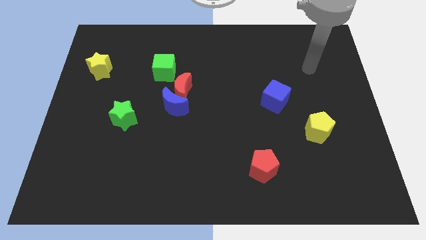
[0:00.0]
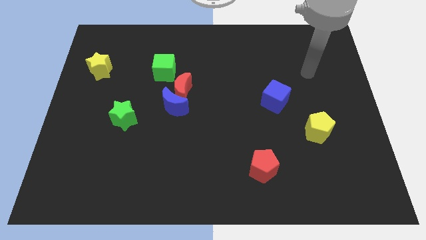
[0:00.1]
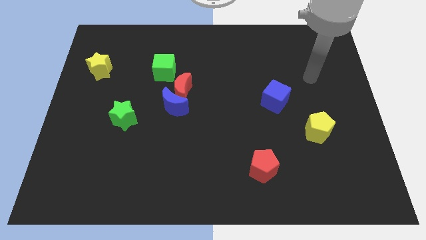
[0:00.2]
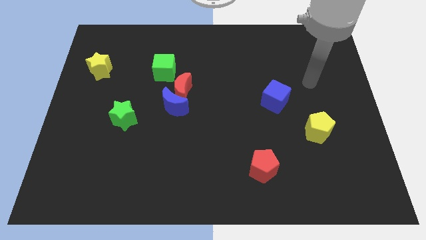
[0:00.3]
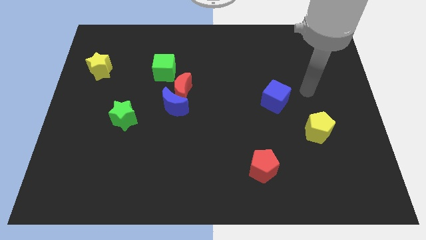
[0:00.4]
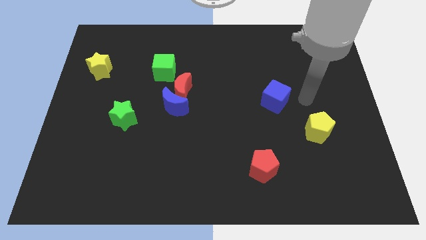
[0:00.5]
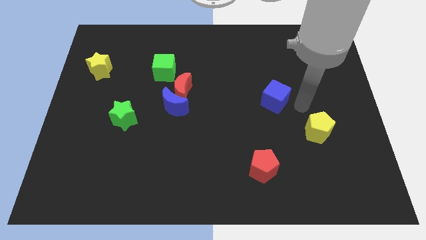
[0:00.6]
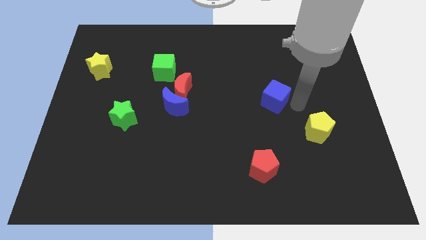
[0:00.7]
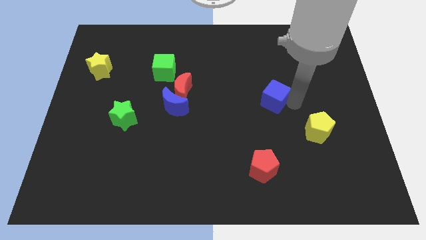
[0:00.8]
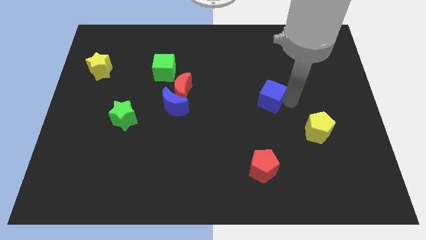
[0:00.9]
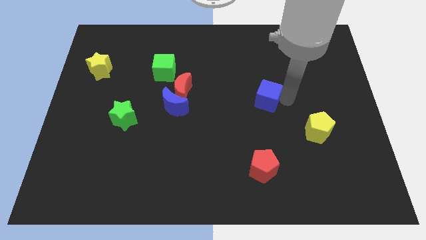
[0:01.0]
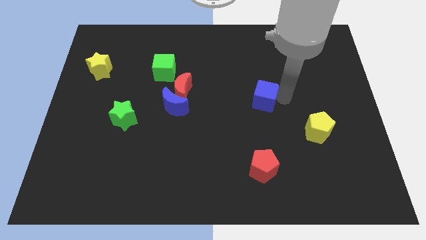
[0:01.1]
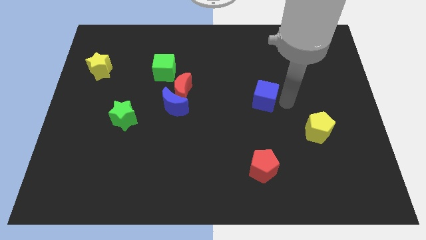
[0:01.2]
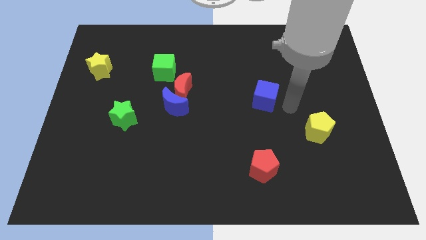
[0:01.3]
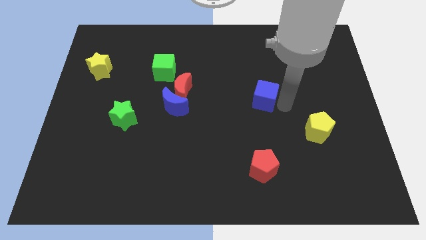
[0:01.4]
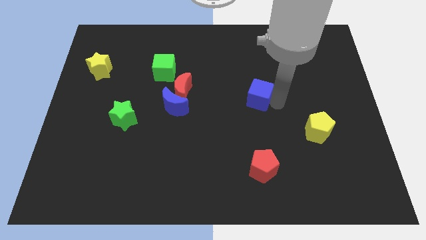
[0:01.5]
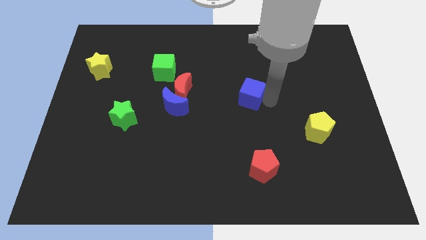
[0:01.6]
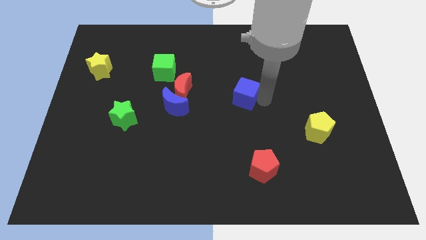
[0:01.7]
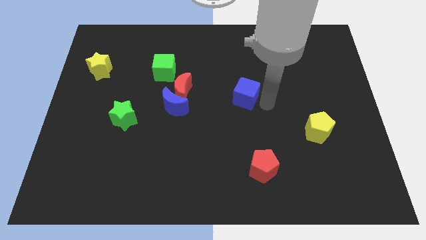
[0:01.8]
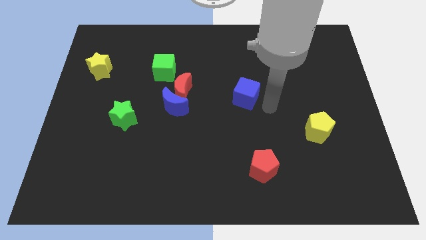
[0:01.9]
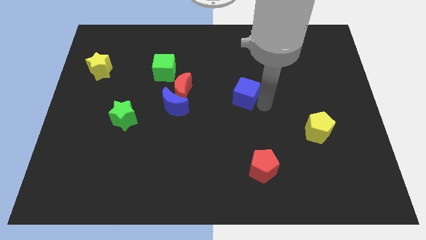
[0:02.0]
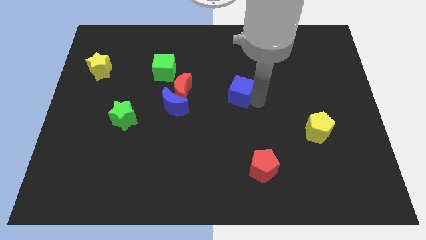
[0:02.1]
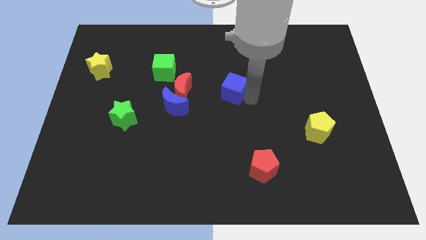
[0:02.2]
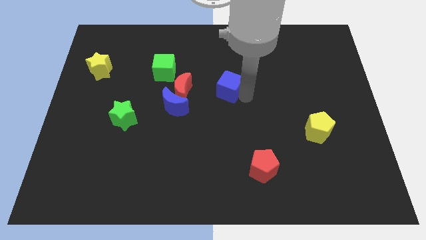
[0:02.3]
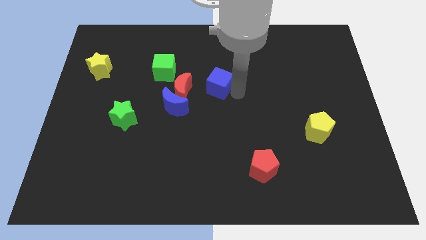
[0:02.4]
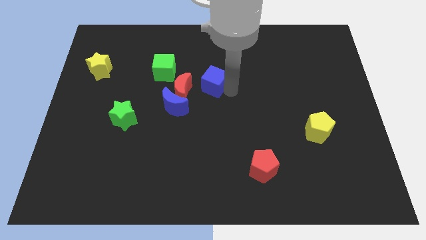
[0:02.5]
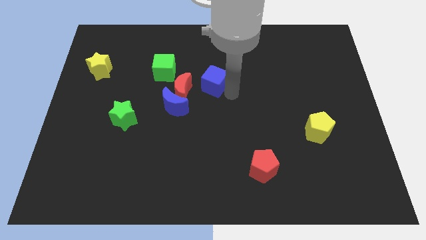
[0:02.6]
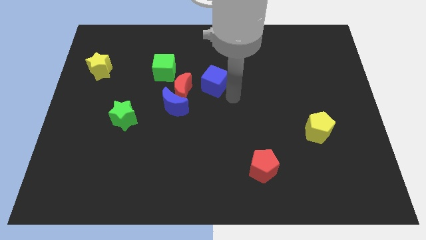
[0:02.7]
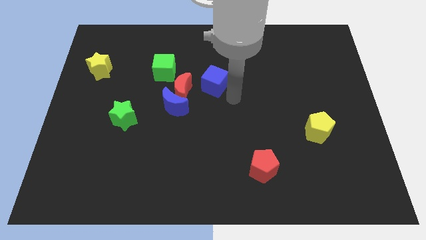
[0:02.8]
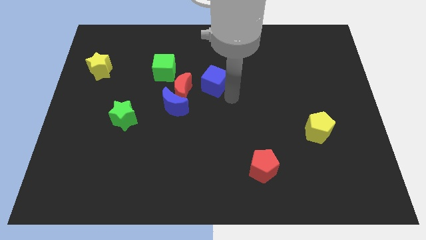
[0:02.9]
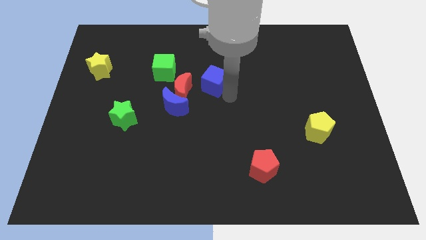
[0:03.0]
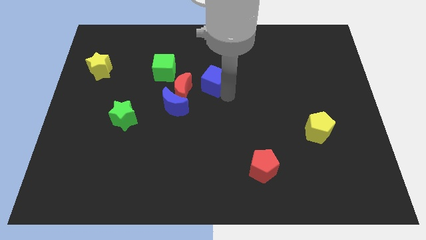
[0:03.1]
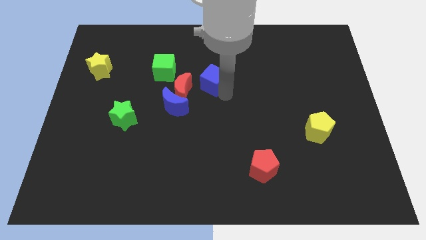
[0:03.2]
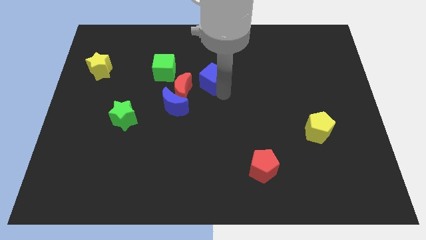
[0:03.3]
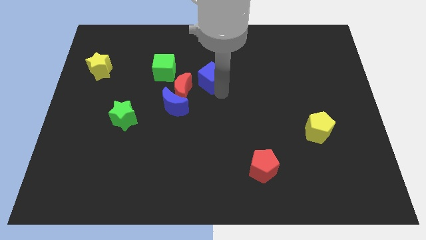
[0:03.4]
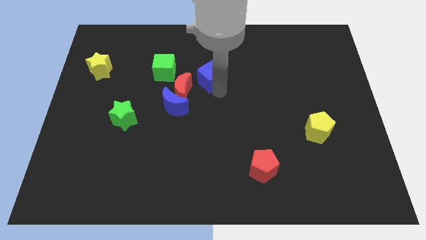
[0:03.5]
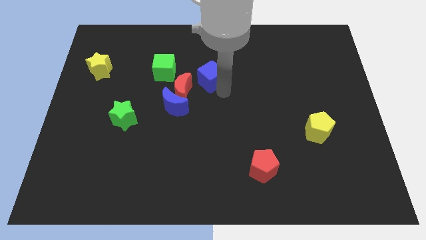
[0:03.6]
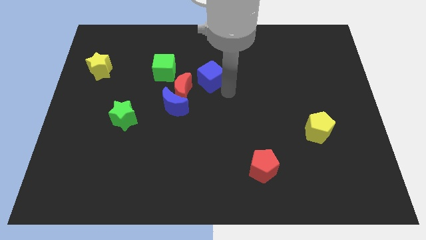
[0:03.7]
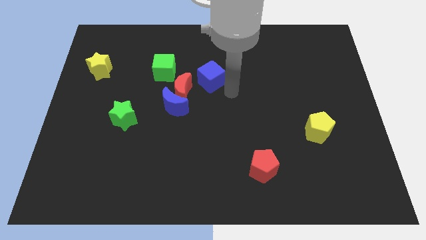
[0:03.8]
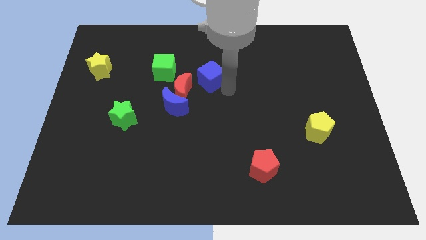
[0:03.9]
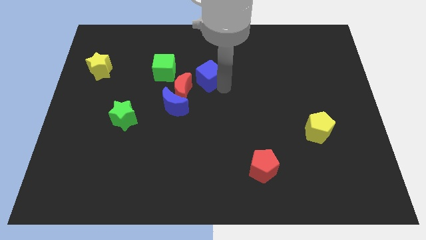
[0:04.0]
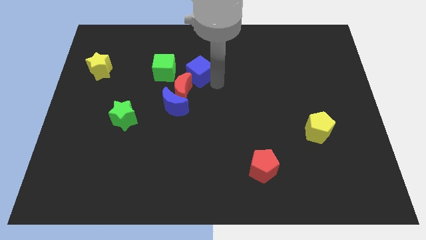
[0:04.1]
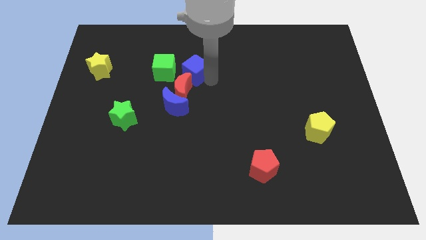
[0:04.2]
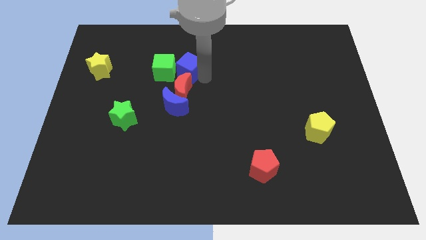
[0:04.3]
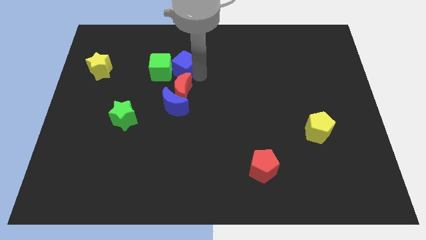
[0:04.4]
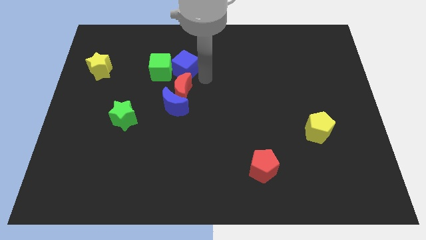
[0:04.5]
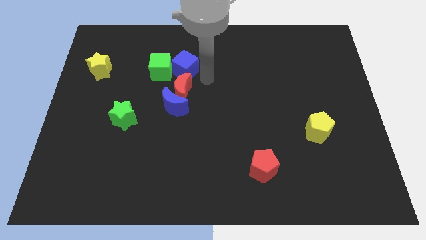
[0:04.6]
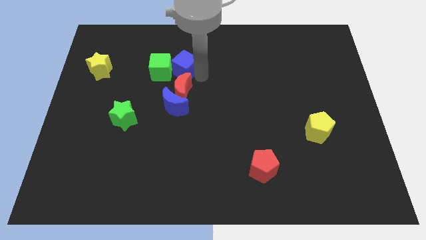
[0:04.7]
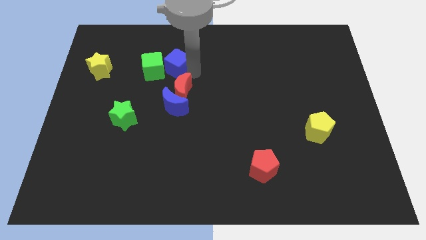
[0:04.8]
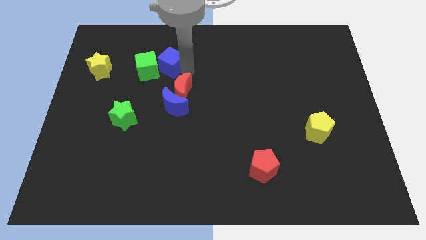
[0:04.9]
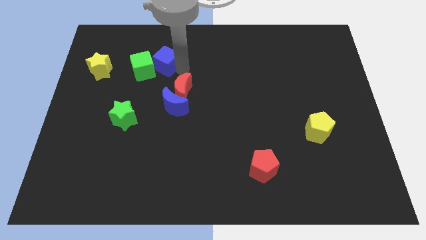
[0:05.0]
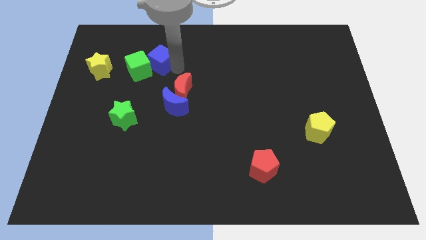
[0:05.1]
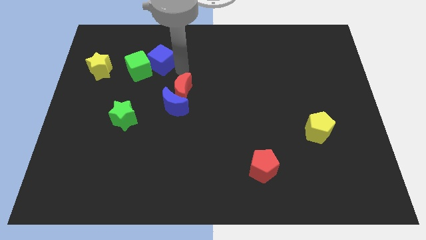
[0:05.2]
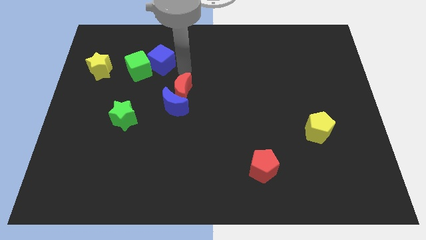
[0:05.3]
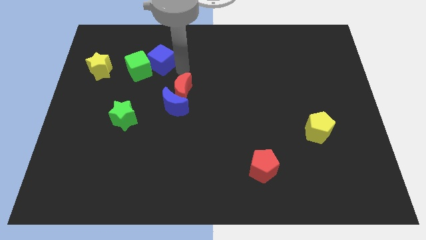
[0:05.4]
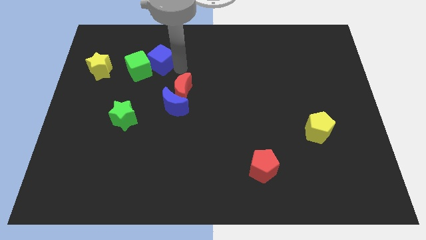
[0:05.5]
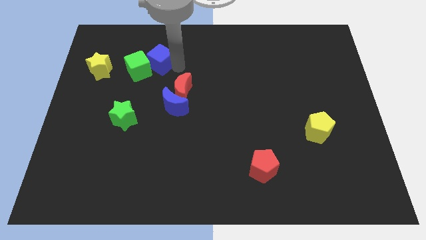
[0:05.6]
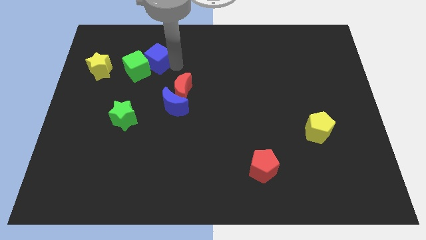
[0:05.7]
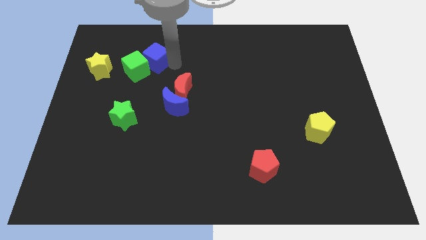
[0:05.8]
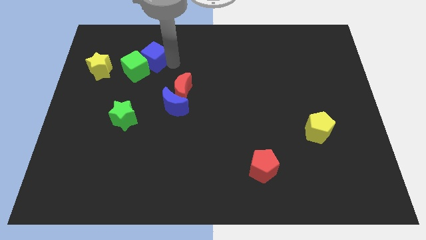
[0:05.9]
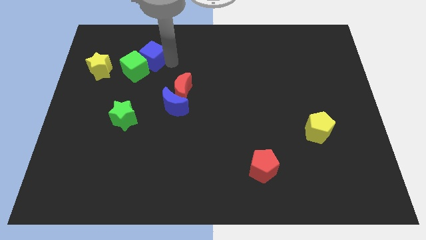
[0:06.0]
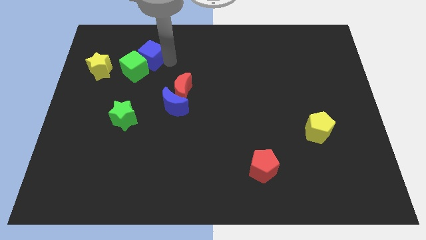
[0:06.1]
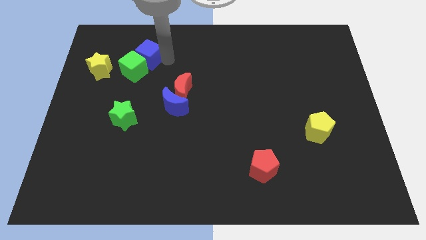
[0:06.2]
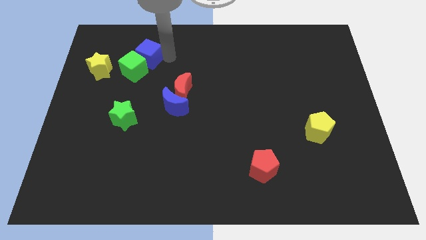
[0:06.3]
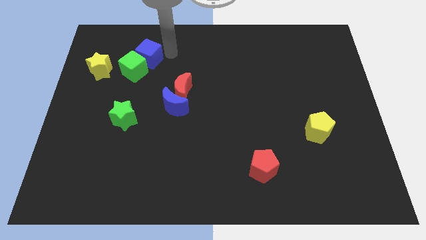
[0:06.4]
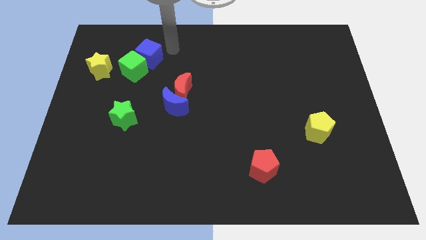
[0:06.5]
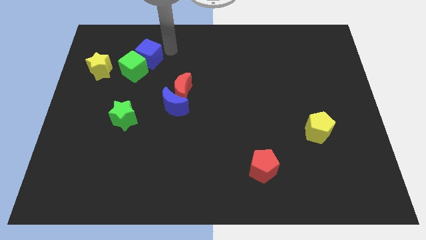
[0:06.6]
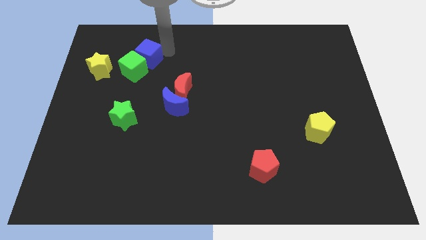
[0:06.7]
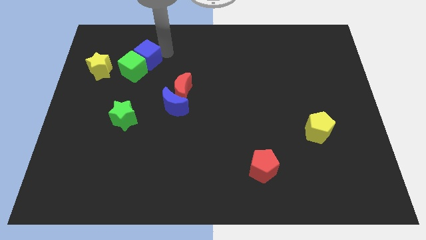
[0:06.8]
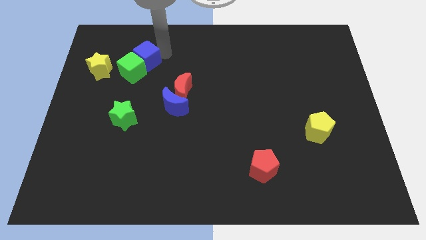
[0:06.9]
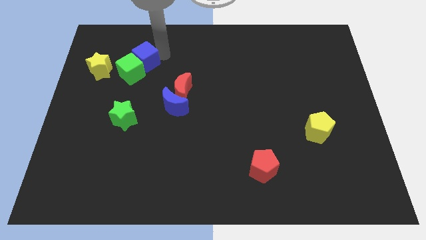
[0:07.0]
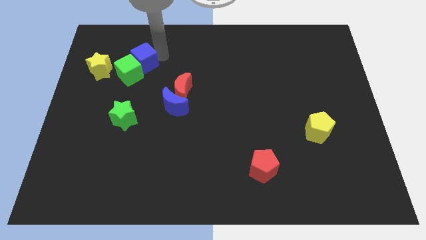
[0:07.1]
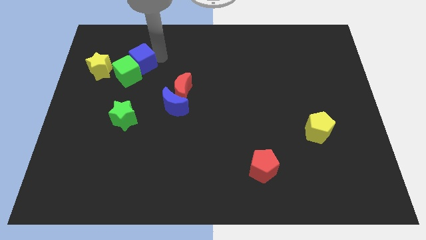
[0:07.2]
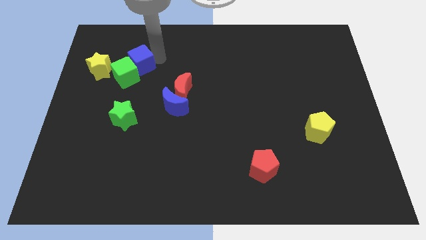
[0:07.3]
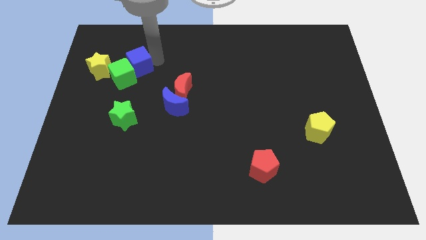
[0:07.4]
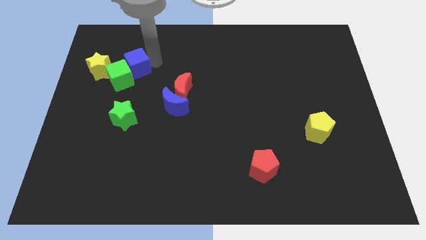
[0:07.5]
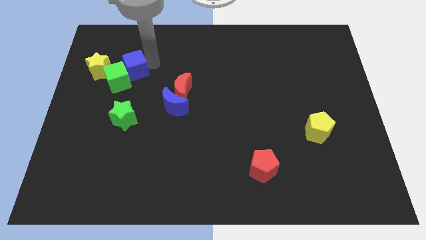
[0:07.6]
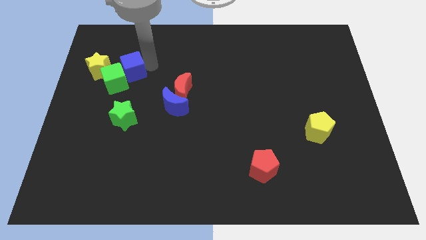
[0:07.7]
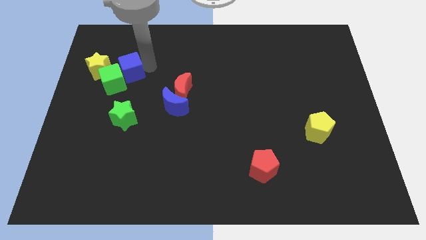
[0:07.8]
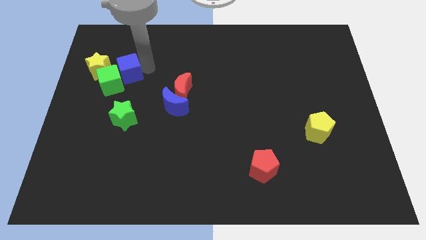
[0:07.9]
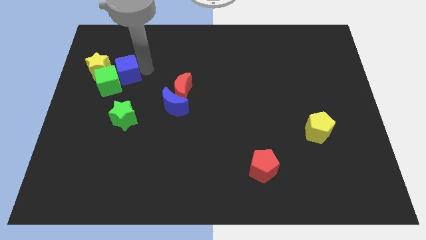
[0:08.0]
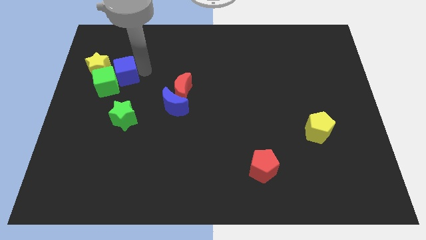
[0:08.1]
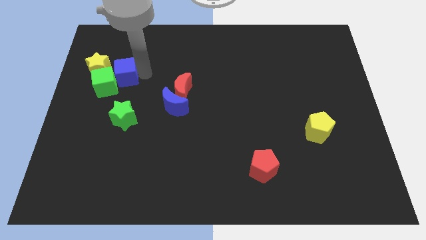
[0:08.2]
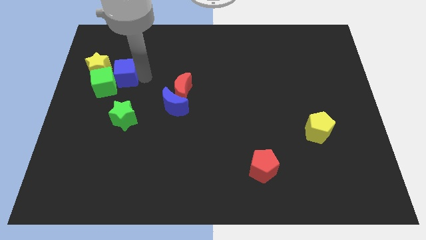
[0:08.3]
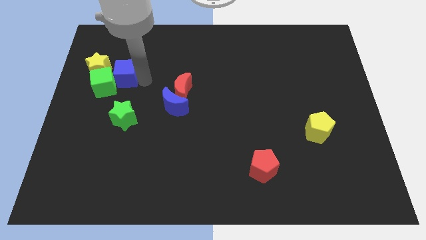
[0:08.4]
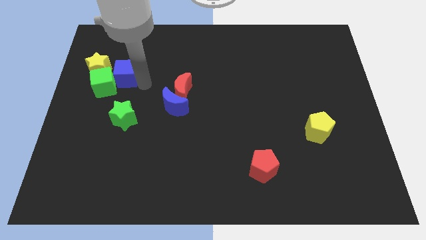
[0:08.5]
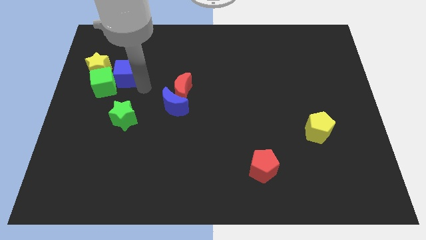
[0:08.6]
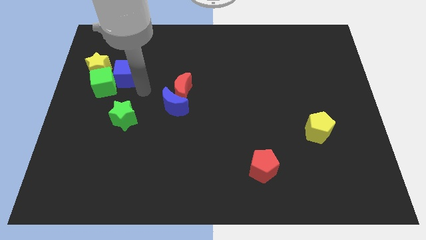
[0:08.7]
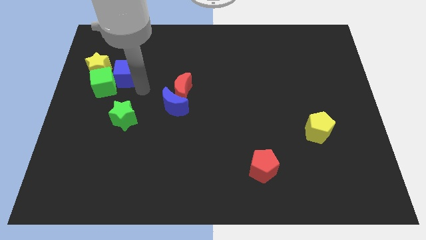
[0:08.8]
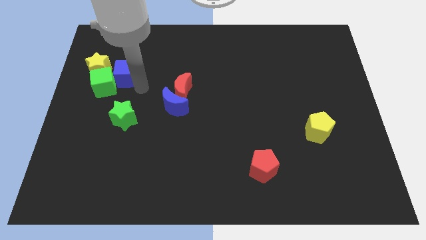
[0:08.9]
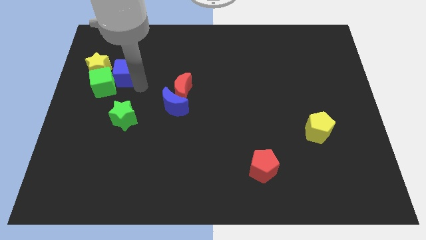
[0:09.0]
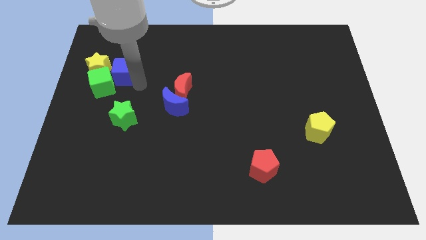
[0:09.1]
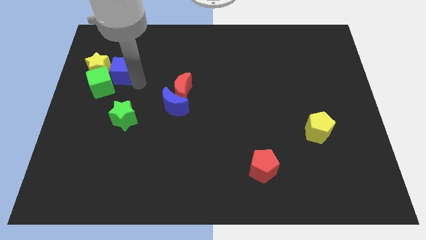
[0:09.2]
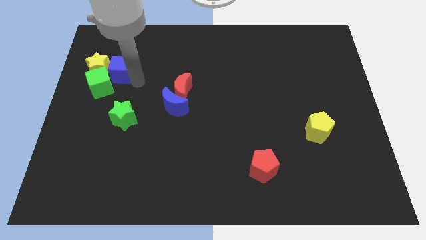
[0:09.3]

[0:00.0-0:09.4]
put the blue cube to the yellow star
